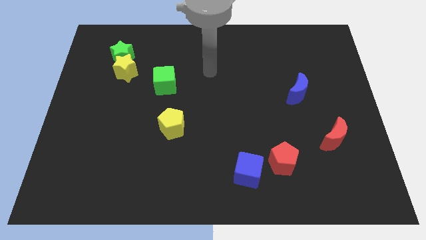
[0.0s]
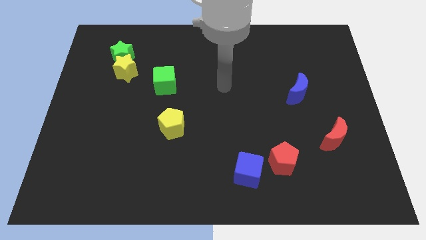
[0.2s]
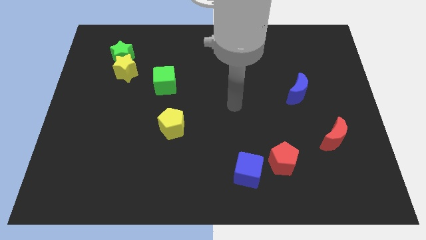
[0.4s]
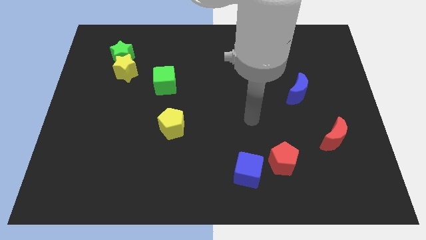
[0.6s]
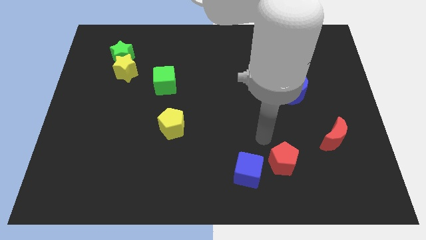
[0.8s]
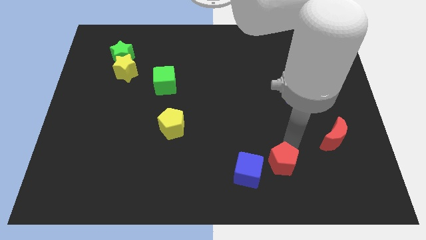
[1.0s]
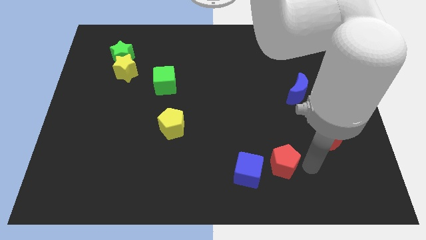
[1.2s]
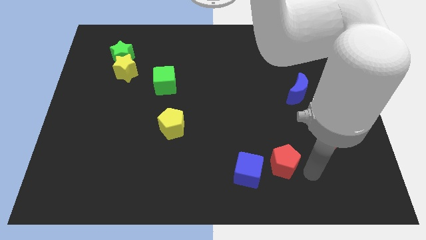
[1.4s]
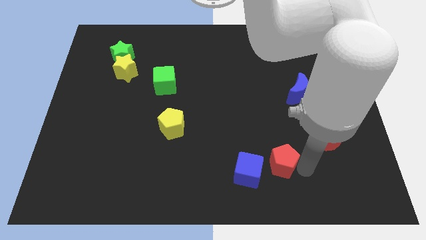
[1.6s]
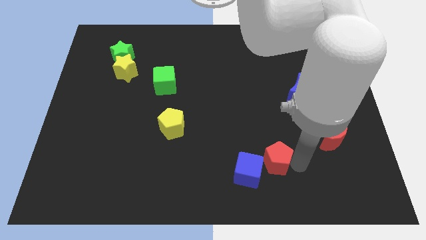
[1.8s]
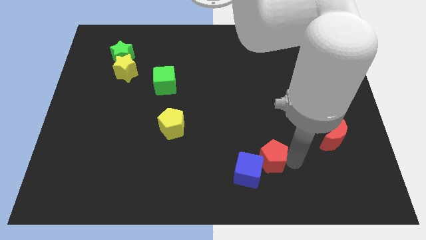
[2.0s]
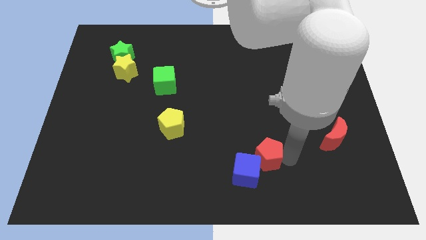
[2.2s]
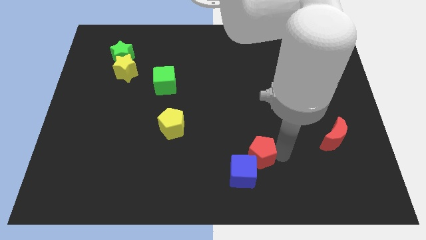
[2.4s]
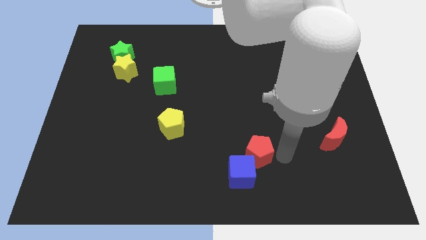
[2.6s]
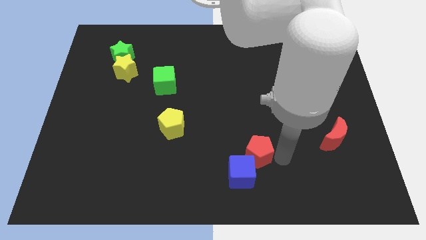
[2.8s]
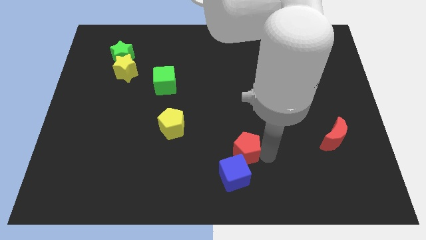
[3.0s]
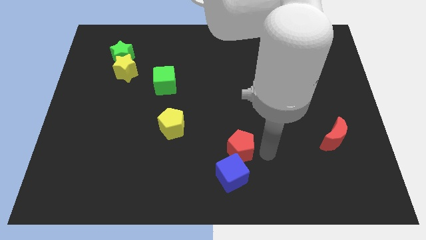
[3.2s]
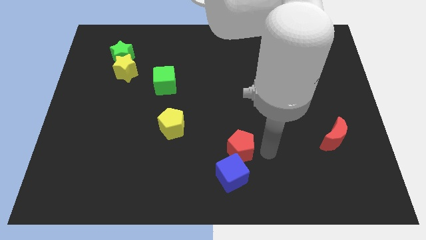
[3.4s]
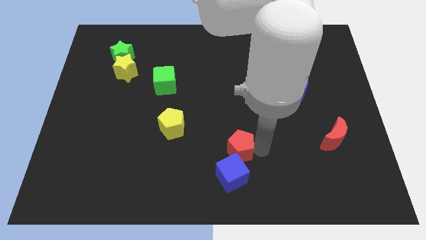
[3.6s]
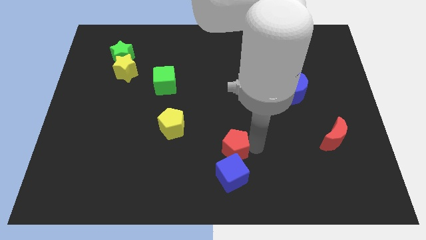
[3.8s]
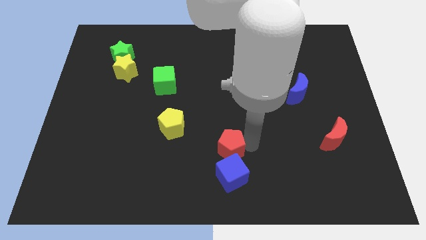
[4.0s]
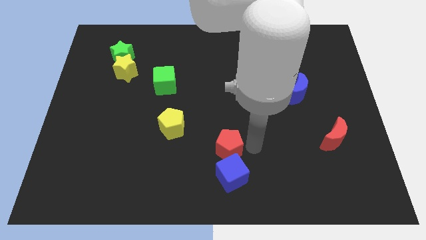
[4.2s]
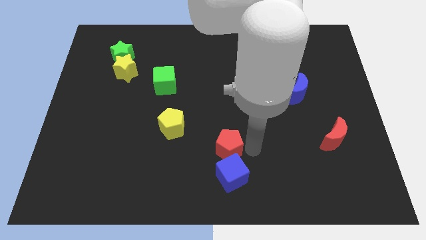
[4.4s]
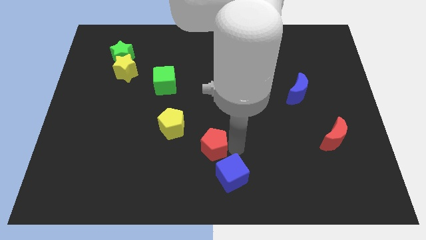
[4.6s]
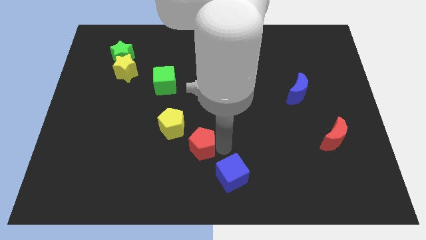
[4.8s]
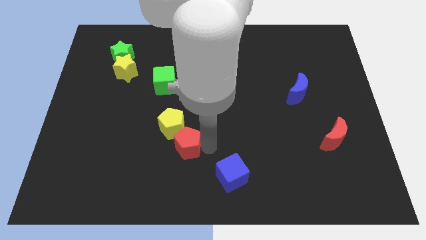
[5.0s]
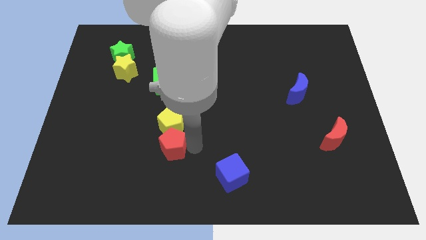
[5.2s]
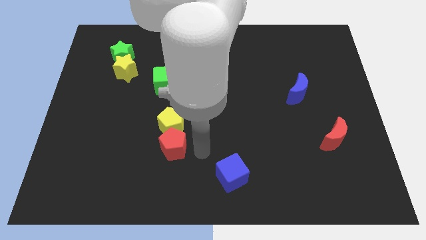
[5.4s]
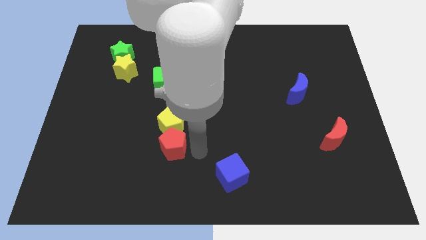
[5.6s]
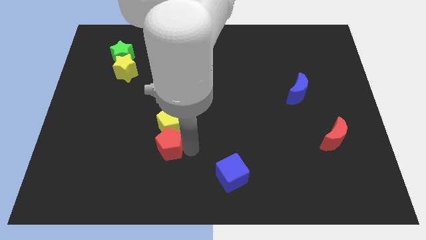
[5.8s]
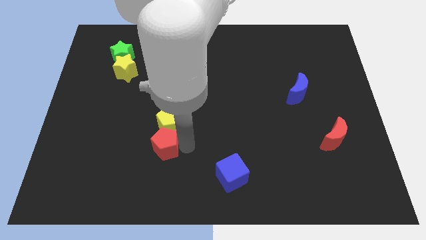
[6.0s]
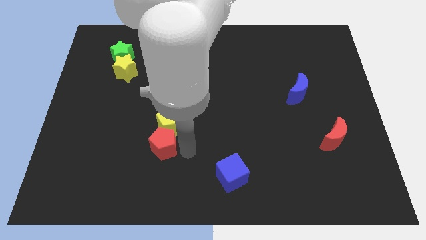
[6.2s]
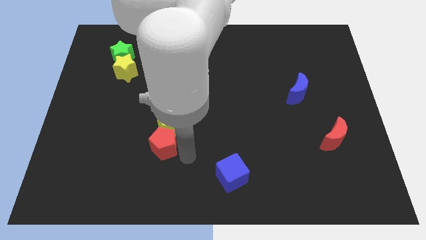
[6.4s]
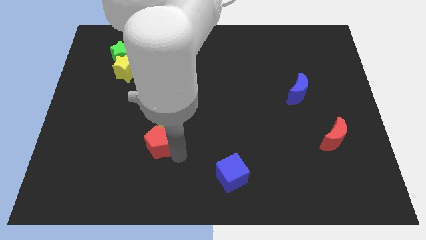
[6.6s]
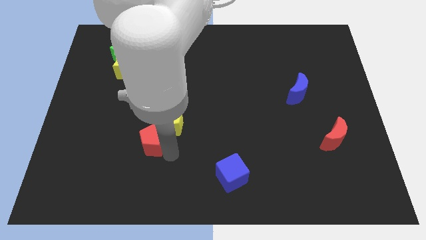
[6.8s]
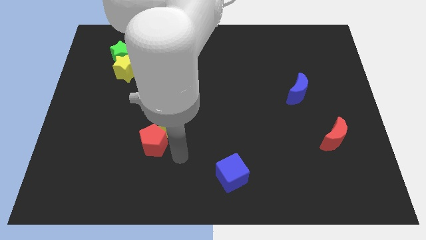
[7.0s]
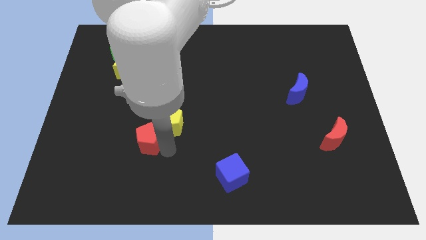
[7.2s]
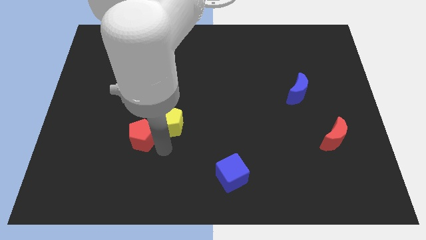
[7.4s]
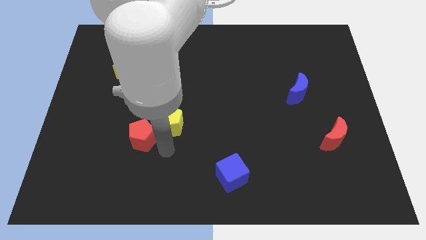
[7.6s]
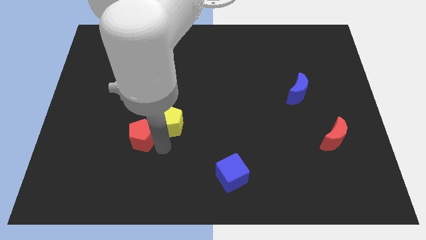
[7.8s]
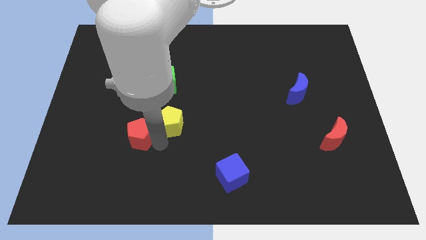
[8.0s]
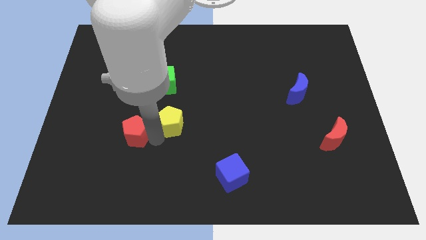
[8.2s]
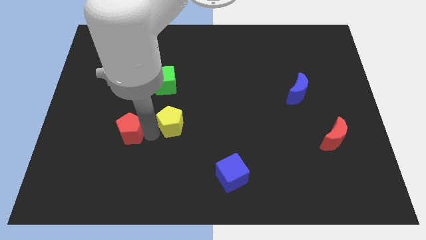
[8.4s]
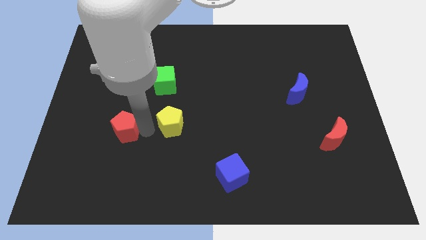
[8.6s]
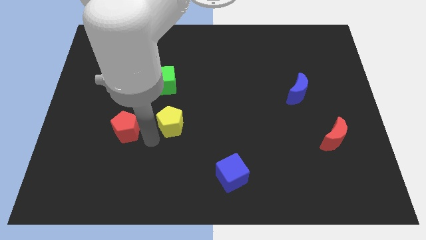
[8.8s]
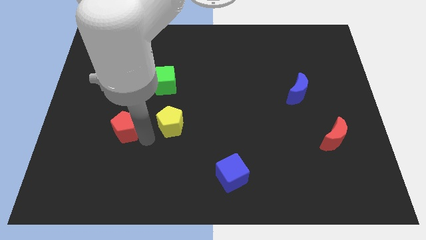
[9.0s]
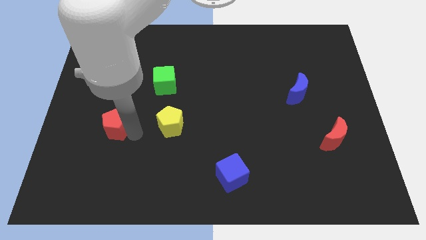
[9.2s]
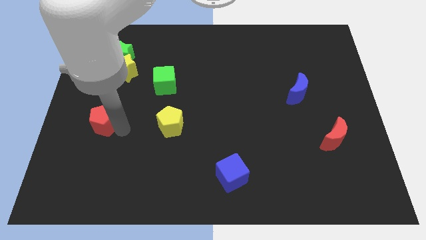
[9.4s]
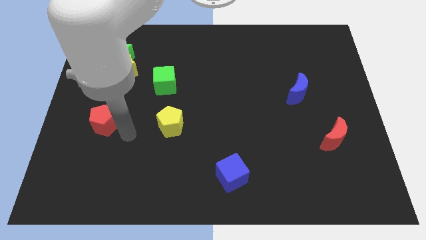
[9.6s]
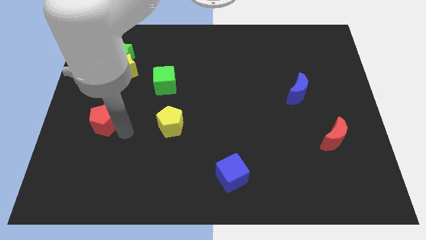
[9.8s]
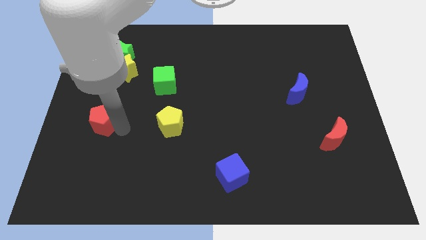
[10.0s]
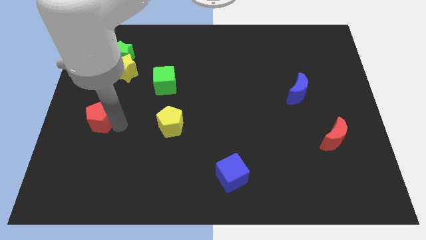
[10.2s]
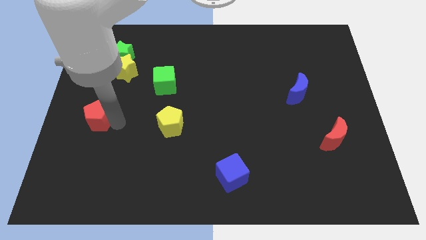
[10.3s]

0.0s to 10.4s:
slide the red pentagon to the left side
